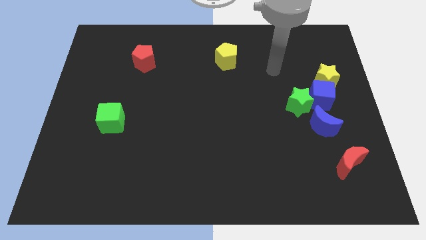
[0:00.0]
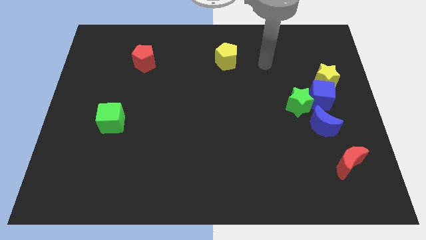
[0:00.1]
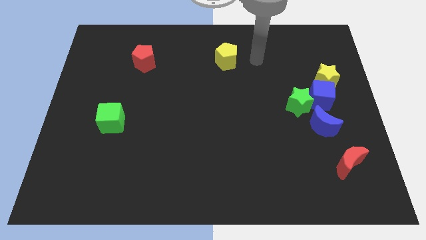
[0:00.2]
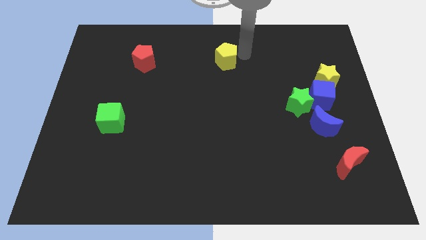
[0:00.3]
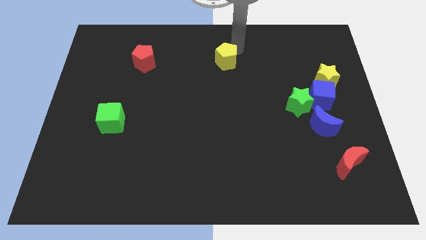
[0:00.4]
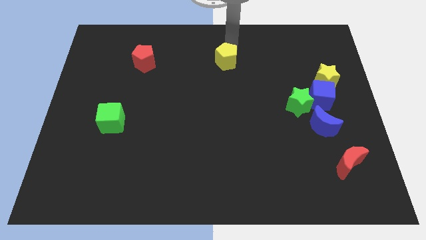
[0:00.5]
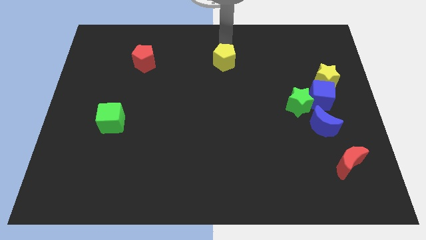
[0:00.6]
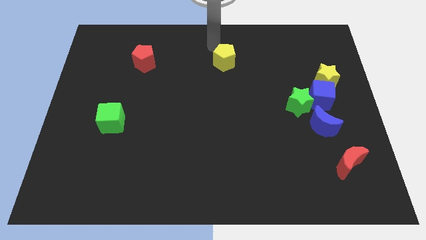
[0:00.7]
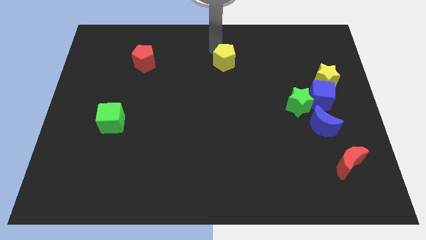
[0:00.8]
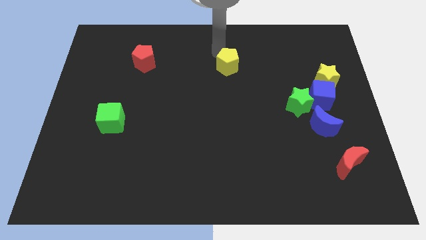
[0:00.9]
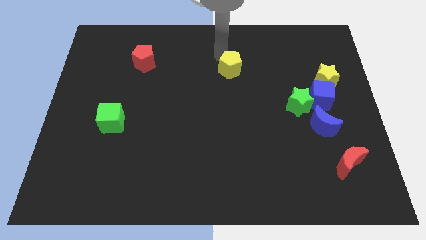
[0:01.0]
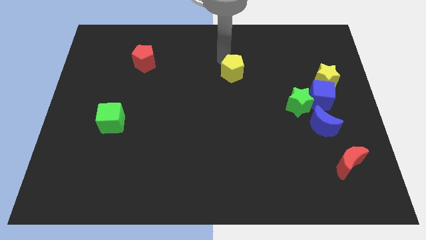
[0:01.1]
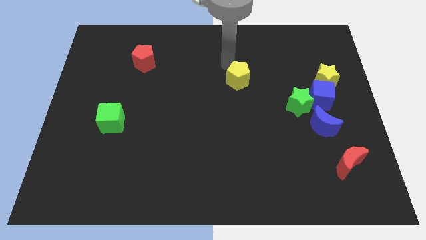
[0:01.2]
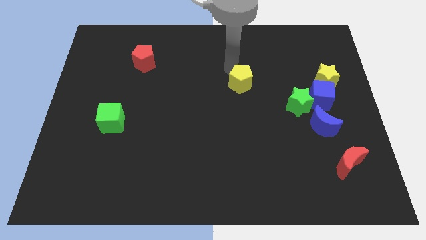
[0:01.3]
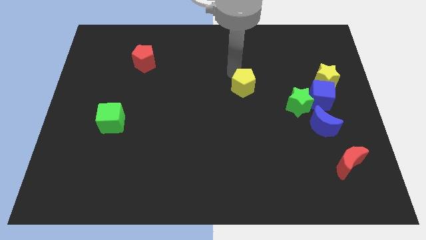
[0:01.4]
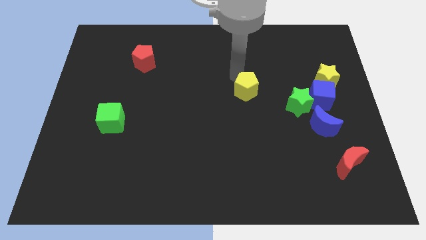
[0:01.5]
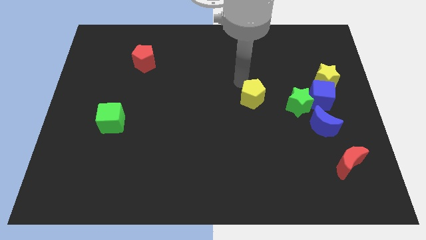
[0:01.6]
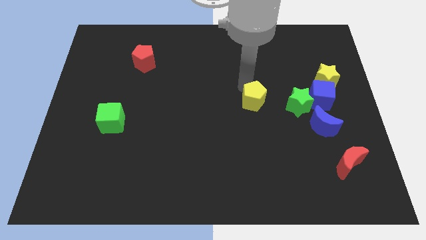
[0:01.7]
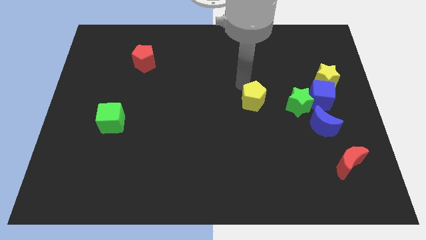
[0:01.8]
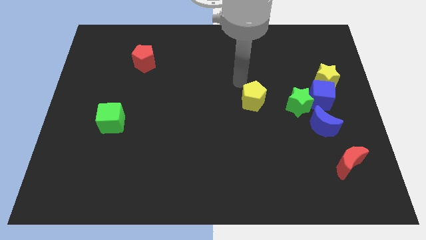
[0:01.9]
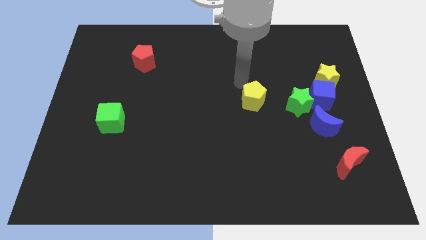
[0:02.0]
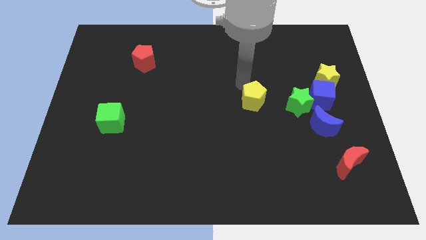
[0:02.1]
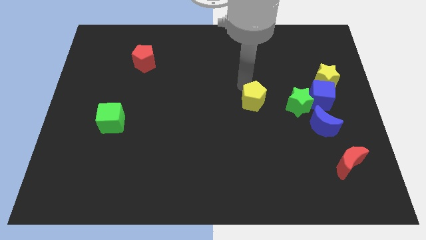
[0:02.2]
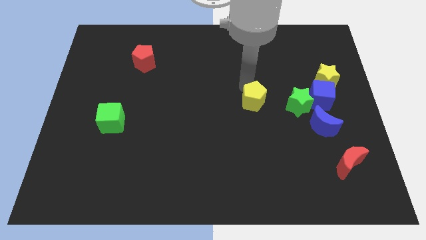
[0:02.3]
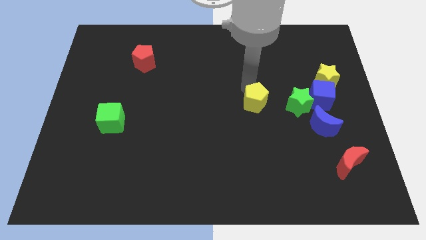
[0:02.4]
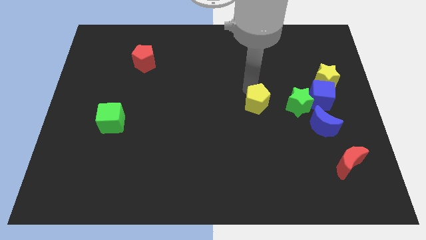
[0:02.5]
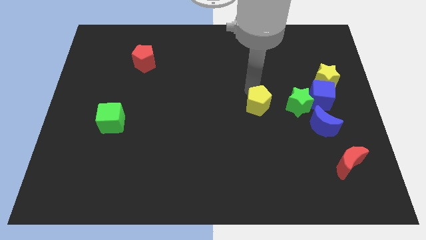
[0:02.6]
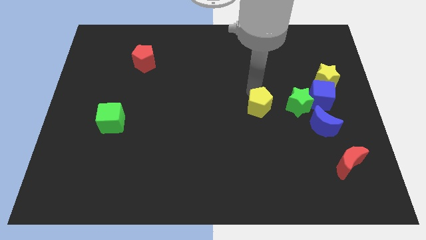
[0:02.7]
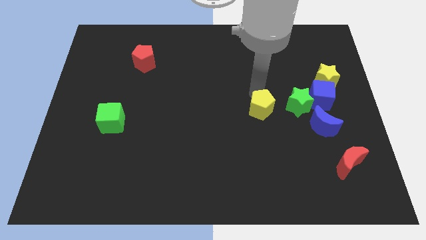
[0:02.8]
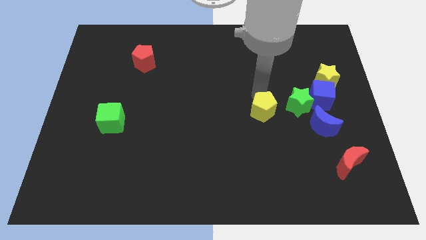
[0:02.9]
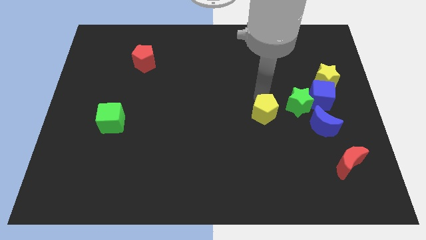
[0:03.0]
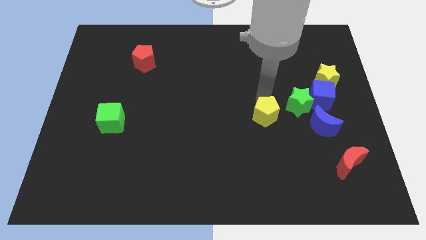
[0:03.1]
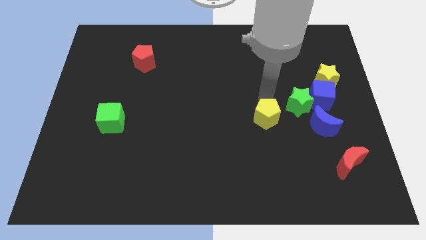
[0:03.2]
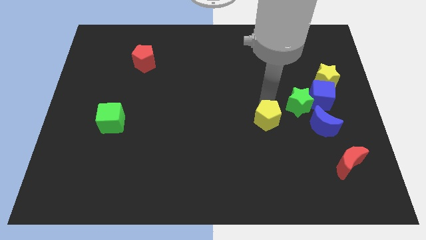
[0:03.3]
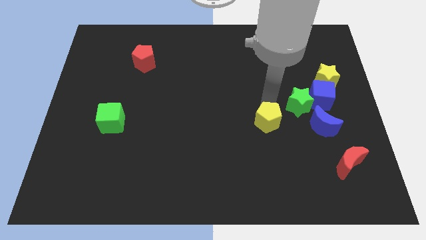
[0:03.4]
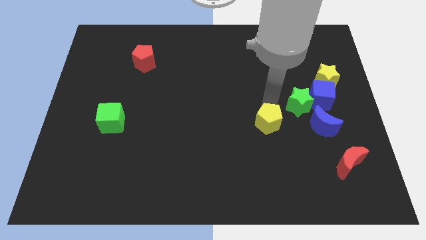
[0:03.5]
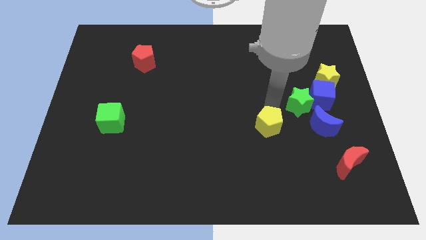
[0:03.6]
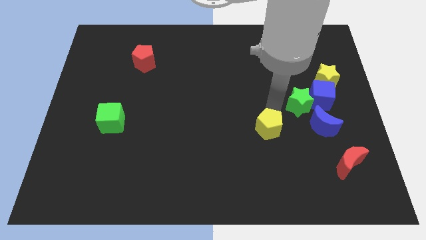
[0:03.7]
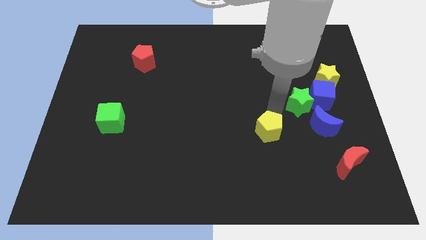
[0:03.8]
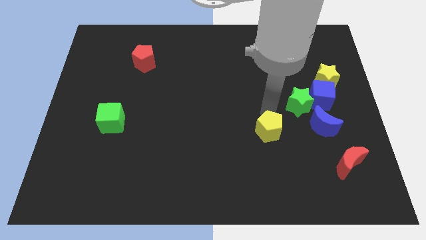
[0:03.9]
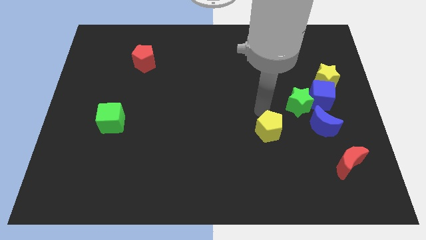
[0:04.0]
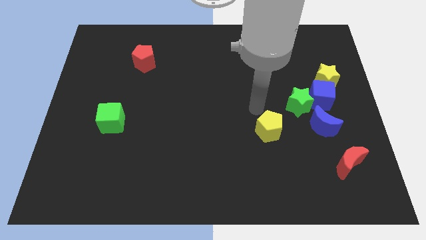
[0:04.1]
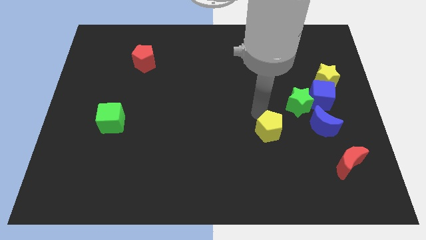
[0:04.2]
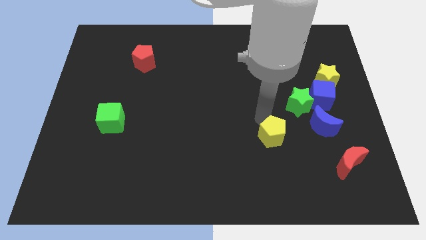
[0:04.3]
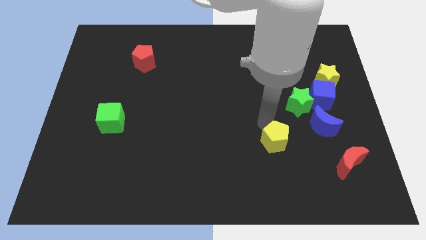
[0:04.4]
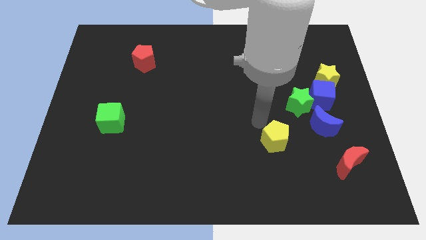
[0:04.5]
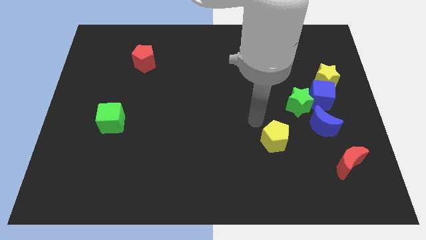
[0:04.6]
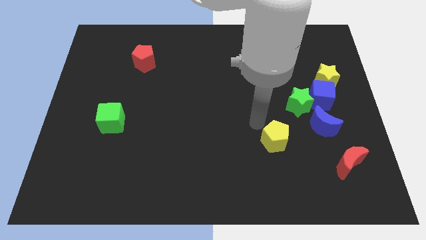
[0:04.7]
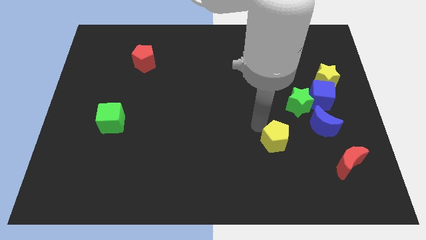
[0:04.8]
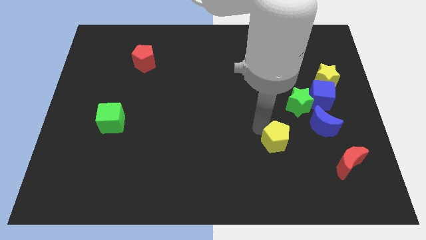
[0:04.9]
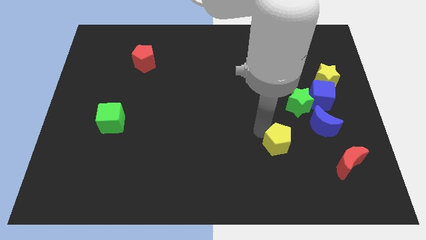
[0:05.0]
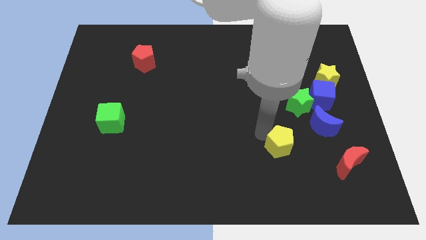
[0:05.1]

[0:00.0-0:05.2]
push the yellow pentagon to the left of the red moon

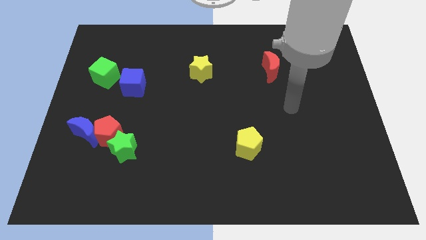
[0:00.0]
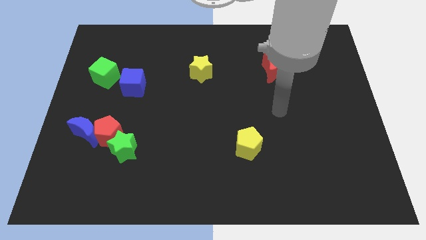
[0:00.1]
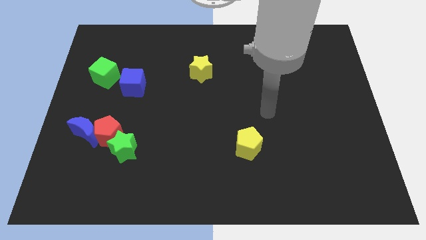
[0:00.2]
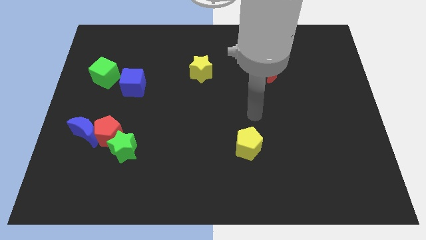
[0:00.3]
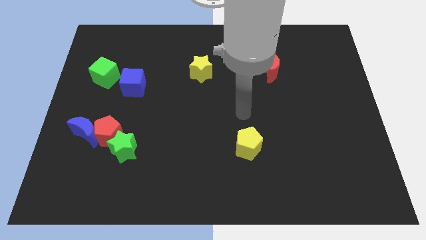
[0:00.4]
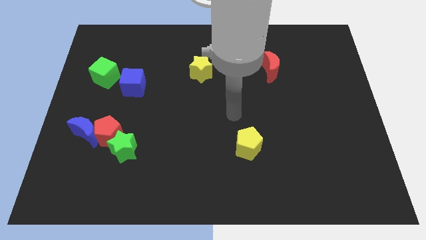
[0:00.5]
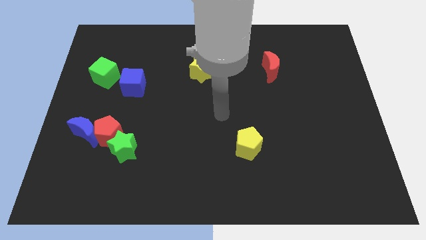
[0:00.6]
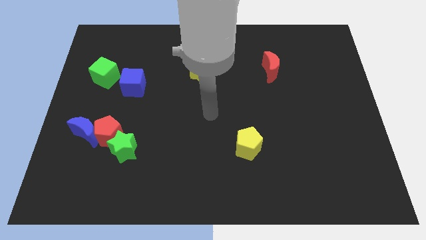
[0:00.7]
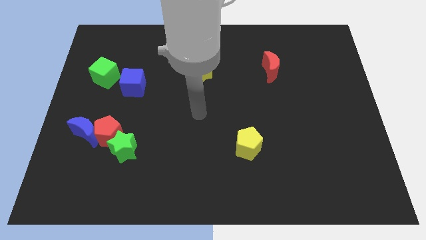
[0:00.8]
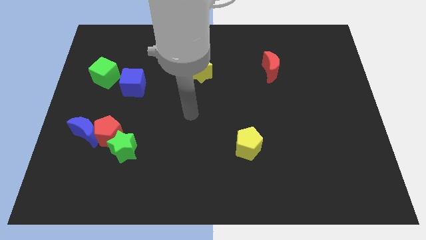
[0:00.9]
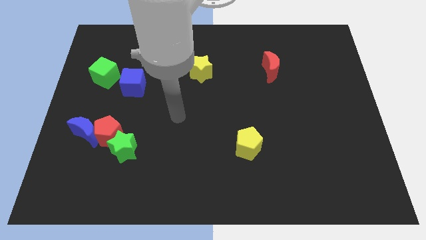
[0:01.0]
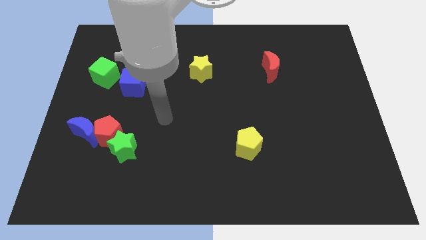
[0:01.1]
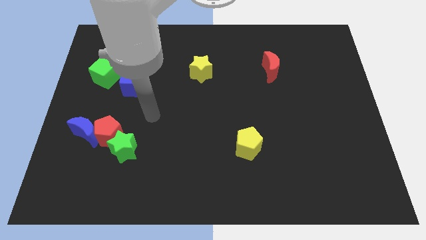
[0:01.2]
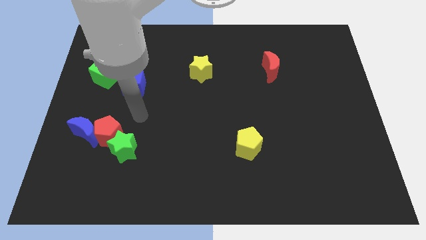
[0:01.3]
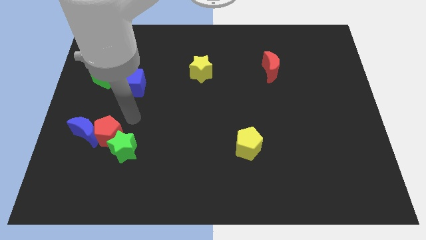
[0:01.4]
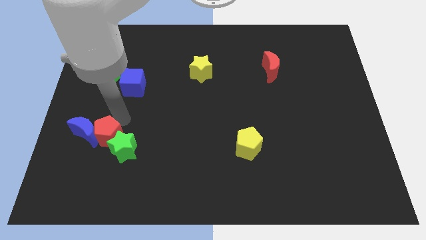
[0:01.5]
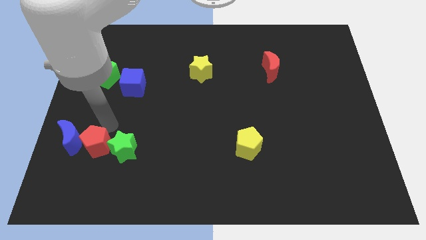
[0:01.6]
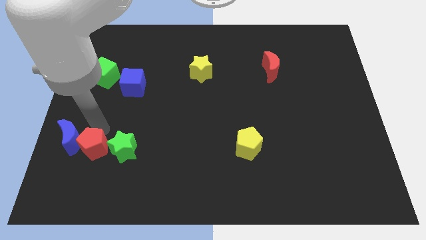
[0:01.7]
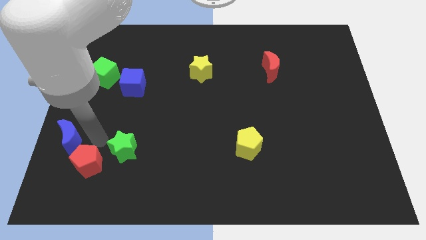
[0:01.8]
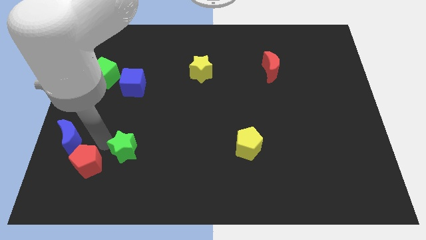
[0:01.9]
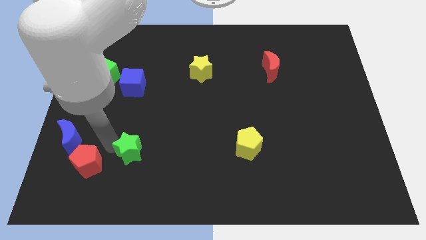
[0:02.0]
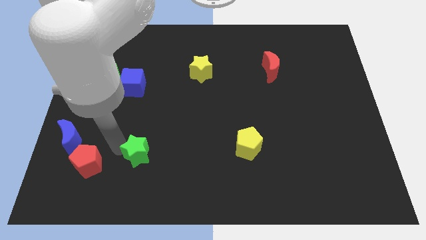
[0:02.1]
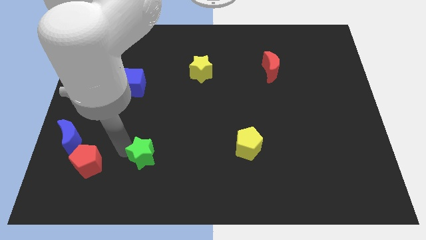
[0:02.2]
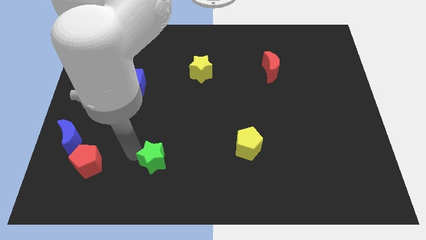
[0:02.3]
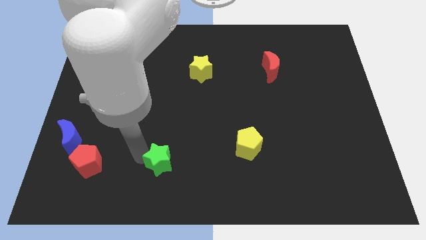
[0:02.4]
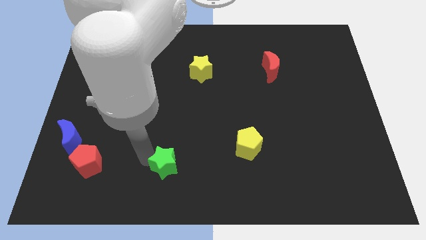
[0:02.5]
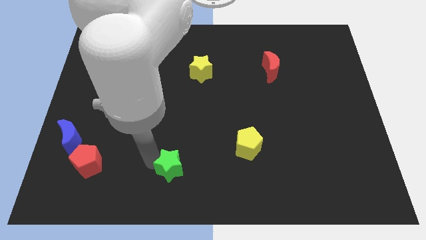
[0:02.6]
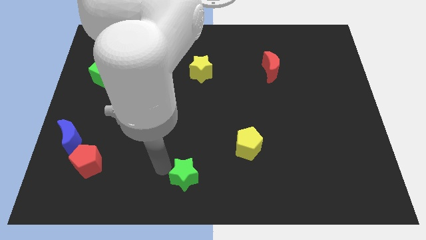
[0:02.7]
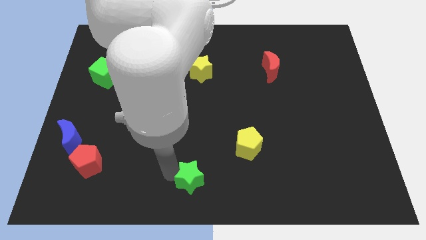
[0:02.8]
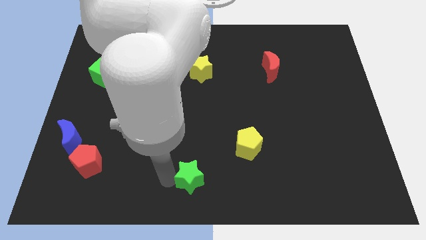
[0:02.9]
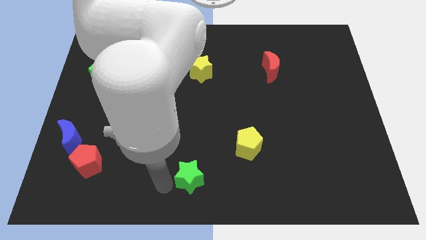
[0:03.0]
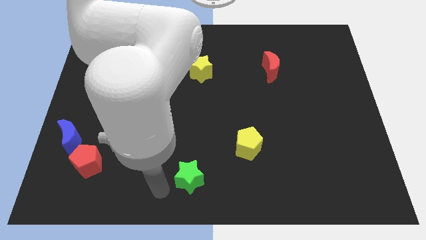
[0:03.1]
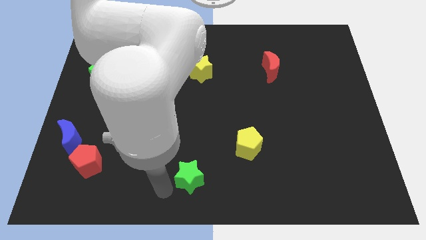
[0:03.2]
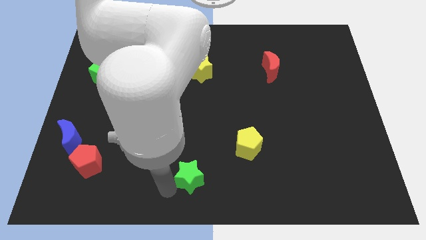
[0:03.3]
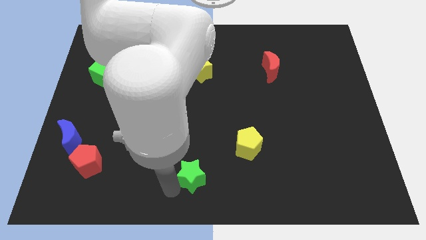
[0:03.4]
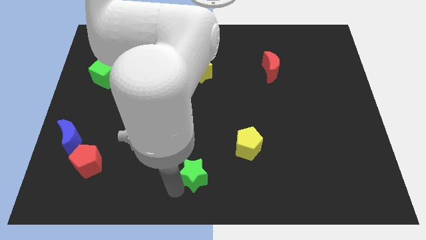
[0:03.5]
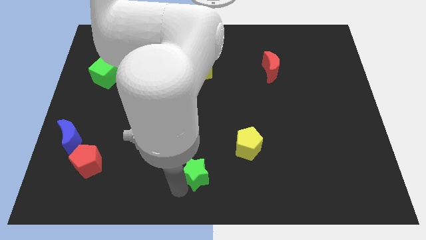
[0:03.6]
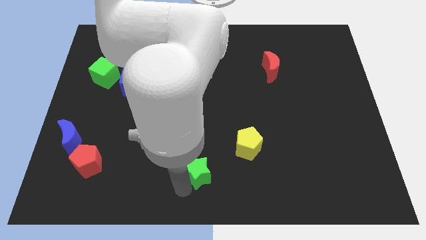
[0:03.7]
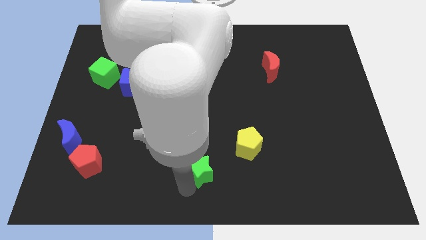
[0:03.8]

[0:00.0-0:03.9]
push the green star to the bottom left of the yellow pentagon
